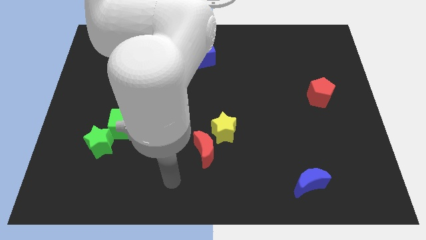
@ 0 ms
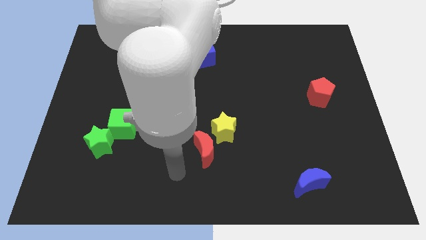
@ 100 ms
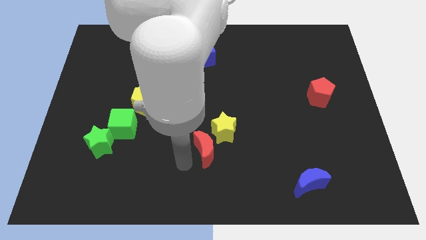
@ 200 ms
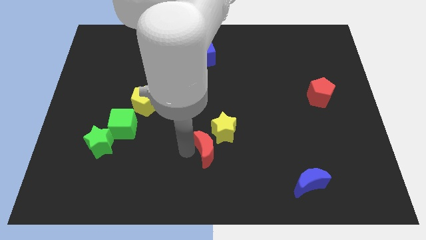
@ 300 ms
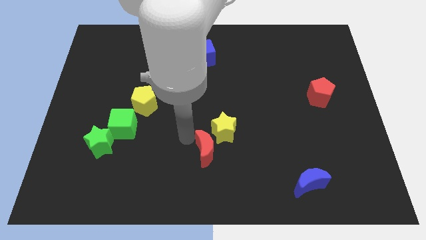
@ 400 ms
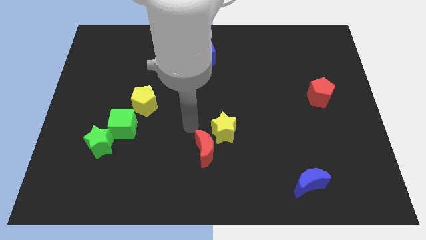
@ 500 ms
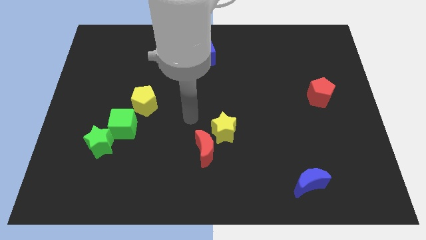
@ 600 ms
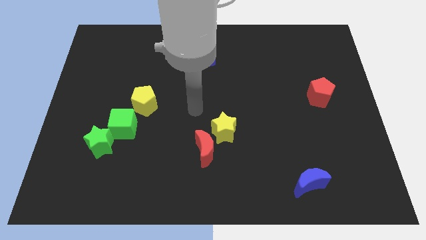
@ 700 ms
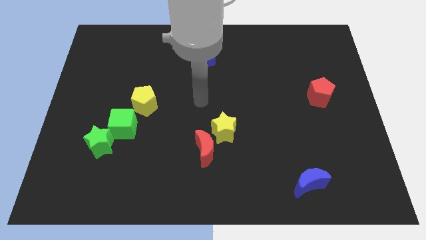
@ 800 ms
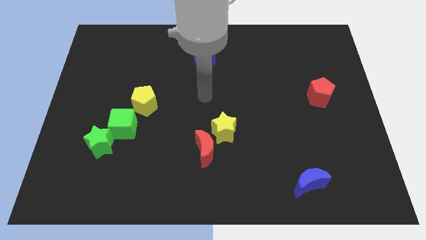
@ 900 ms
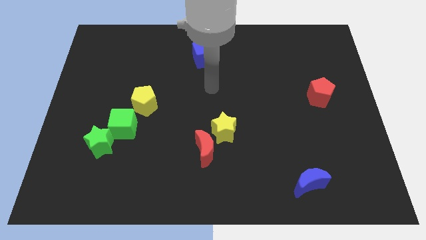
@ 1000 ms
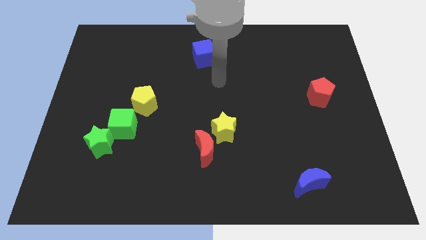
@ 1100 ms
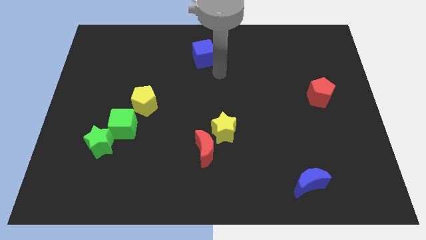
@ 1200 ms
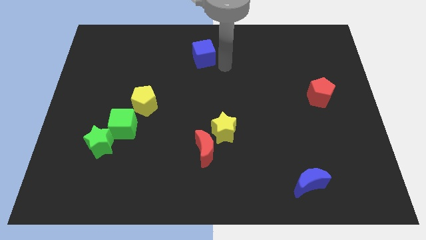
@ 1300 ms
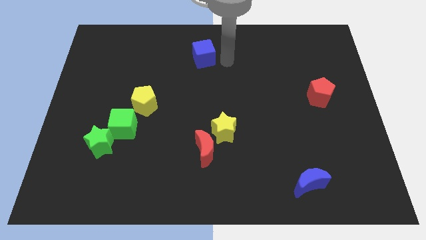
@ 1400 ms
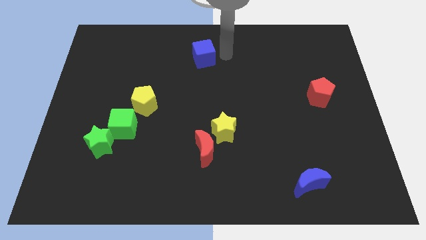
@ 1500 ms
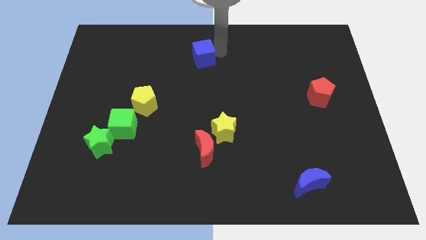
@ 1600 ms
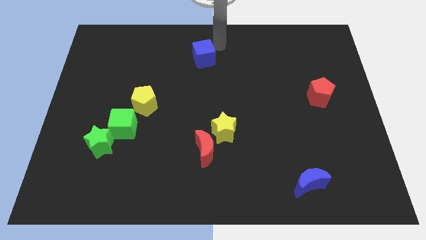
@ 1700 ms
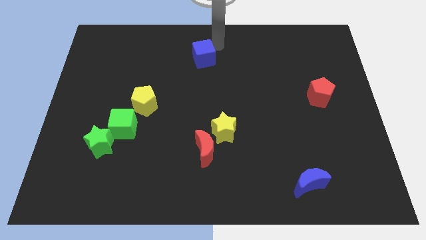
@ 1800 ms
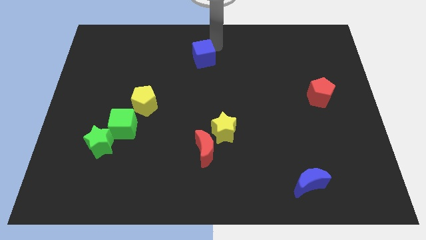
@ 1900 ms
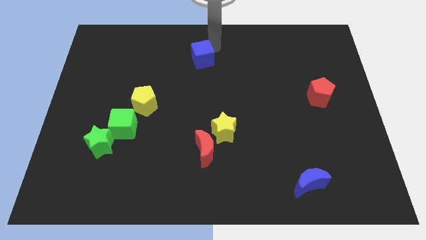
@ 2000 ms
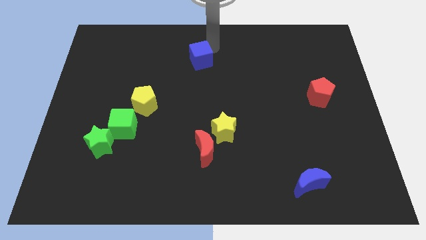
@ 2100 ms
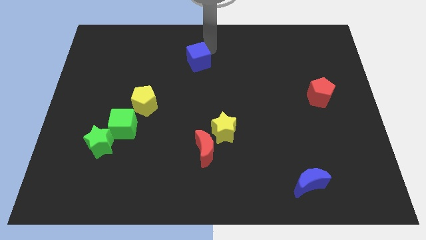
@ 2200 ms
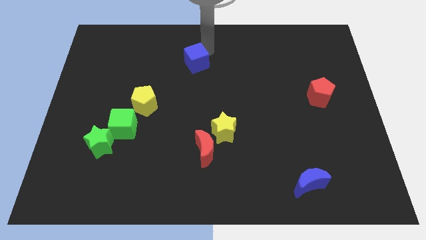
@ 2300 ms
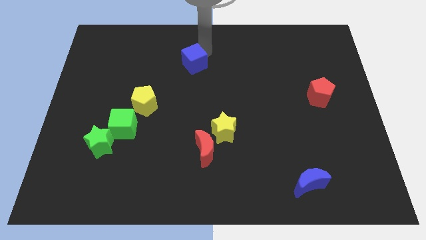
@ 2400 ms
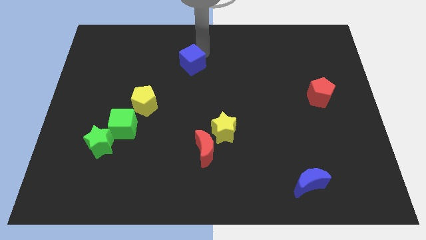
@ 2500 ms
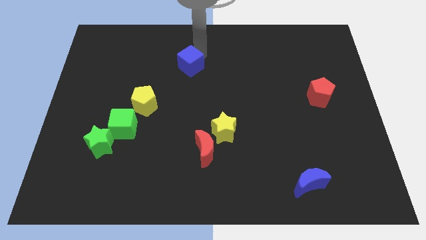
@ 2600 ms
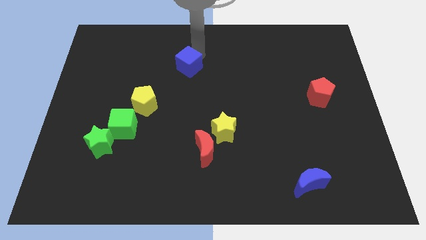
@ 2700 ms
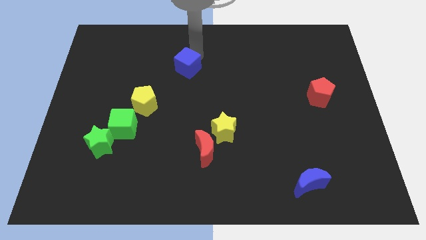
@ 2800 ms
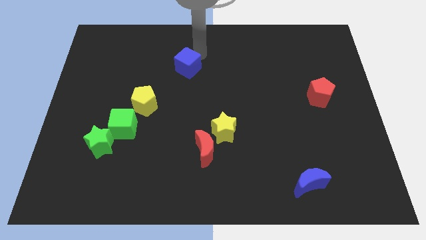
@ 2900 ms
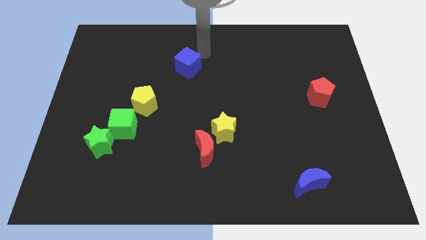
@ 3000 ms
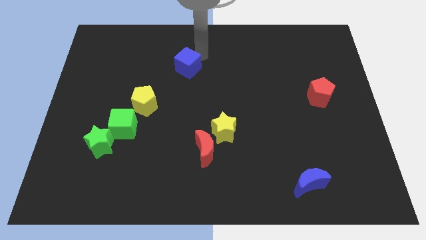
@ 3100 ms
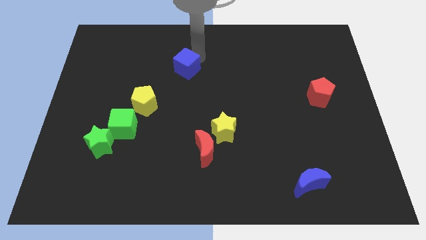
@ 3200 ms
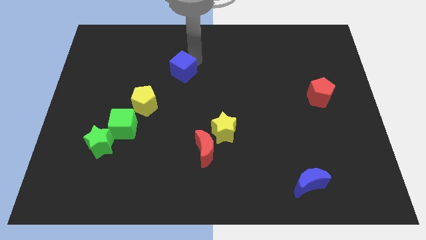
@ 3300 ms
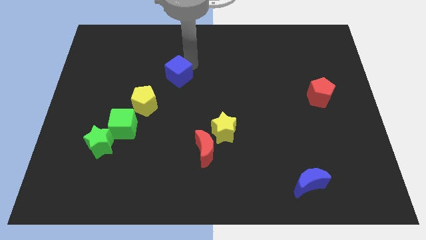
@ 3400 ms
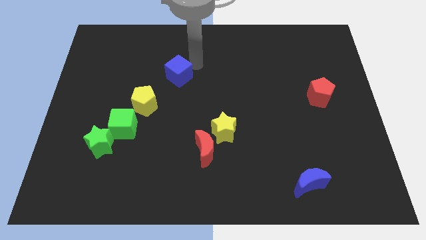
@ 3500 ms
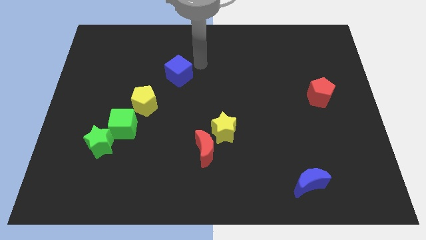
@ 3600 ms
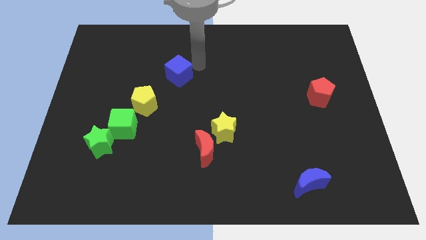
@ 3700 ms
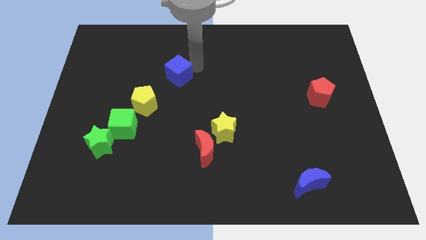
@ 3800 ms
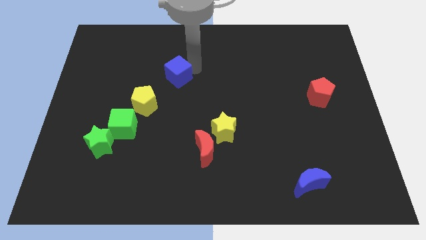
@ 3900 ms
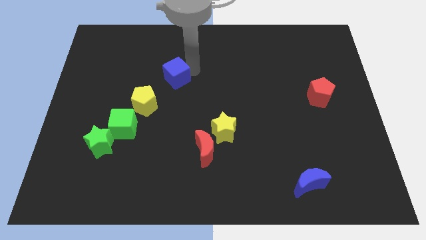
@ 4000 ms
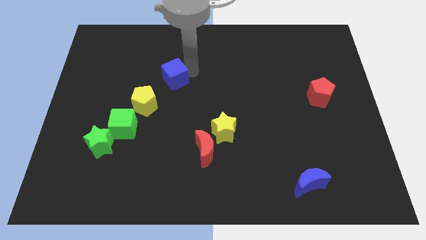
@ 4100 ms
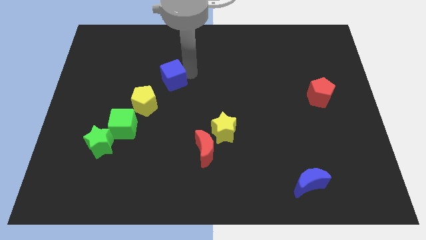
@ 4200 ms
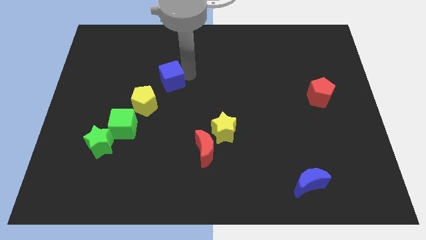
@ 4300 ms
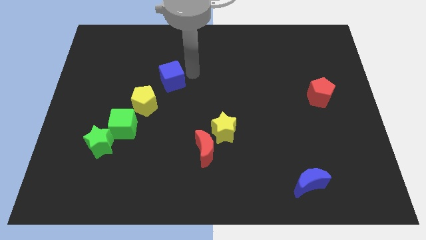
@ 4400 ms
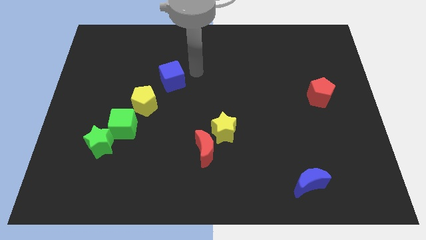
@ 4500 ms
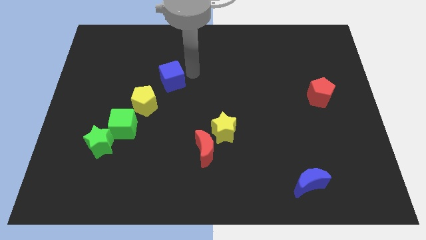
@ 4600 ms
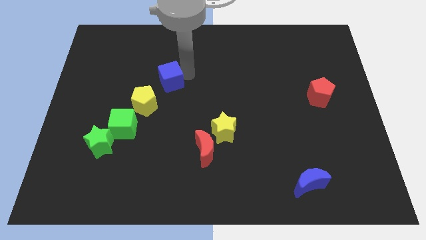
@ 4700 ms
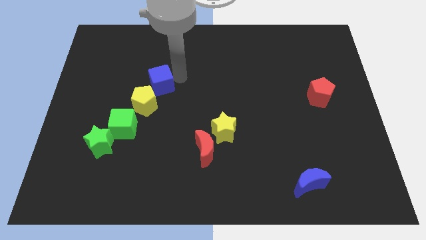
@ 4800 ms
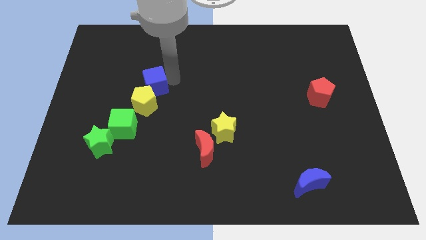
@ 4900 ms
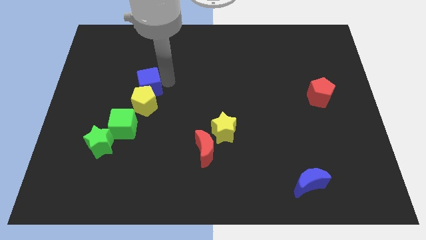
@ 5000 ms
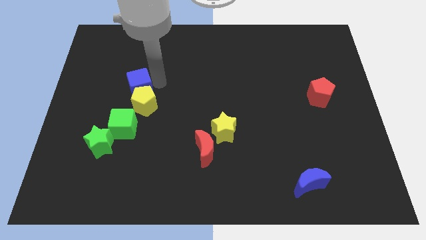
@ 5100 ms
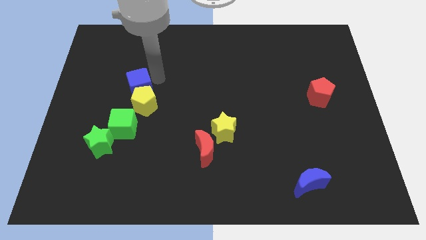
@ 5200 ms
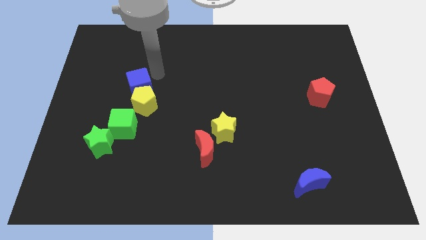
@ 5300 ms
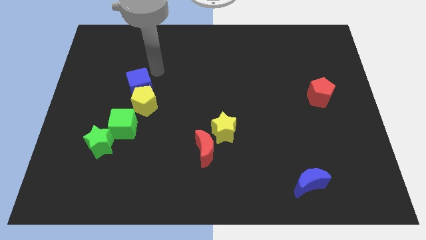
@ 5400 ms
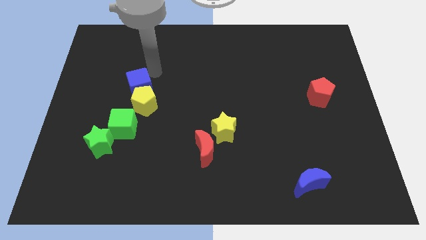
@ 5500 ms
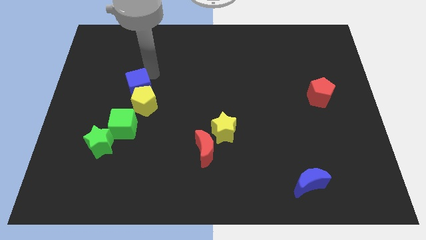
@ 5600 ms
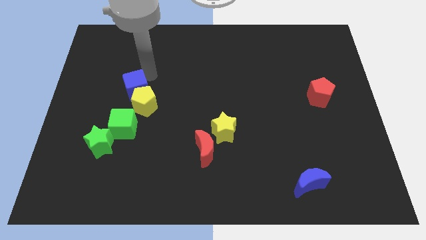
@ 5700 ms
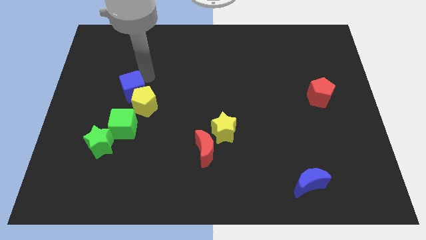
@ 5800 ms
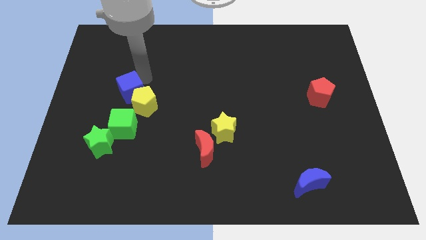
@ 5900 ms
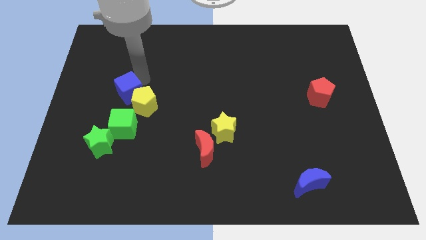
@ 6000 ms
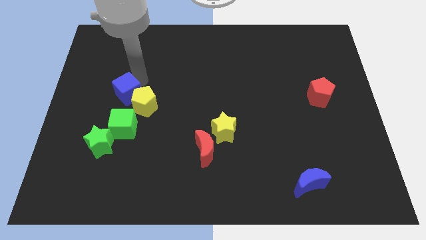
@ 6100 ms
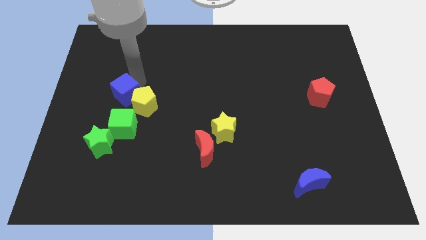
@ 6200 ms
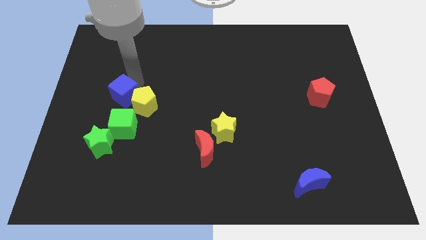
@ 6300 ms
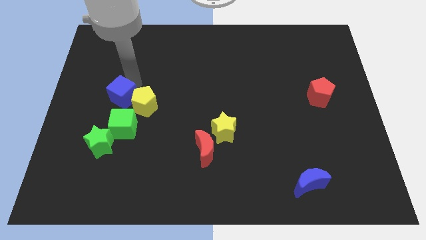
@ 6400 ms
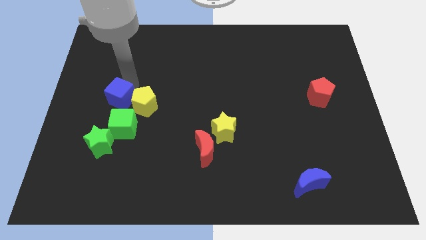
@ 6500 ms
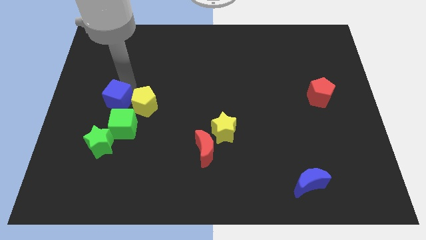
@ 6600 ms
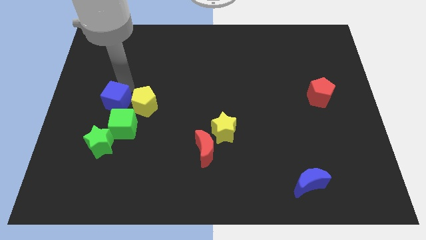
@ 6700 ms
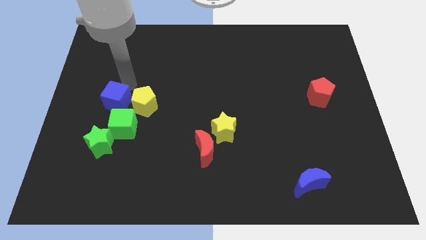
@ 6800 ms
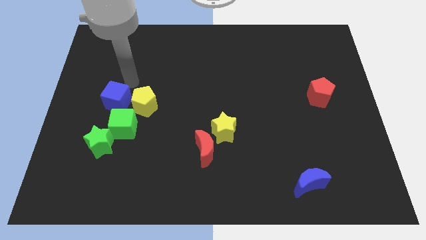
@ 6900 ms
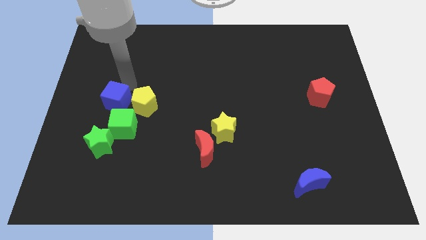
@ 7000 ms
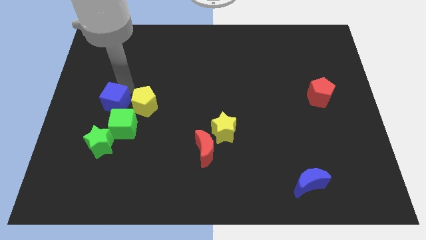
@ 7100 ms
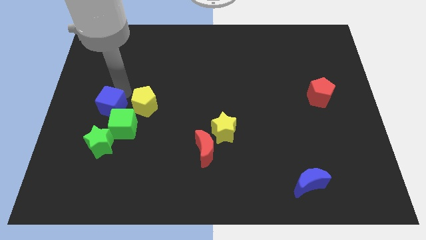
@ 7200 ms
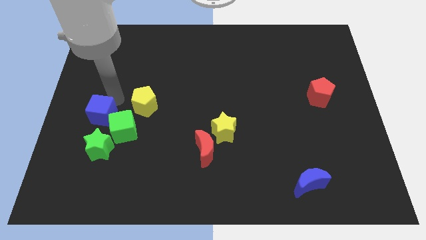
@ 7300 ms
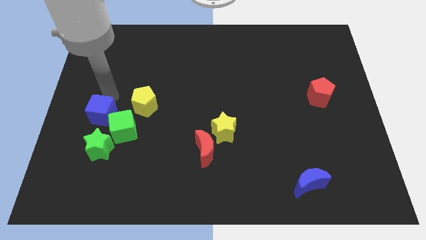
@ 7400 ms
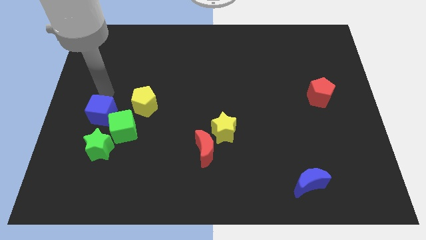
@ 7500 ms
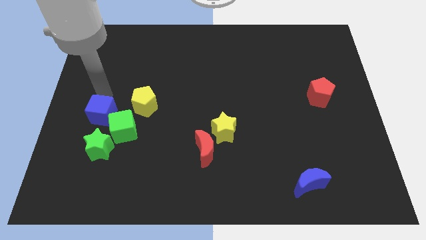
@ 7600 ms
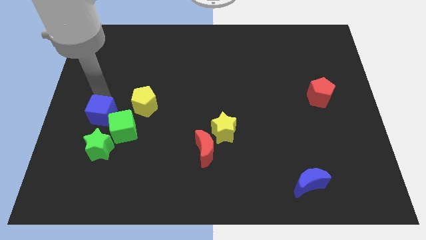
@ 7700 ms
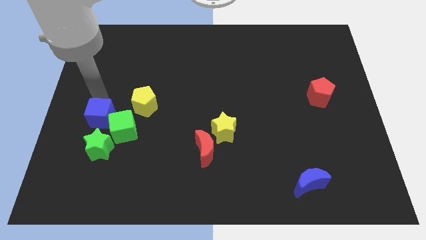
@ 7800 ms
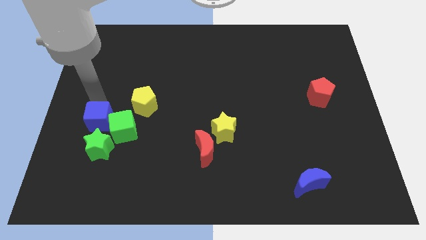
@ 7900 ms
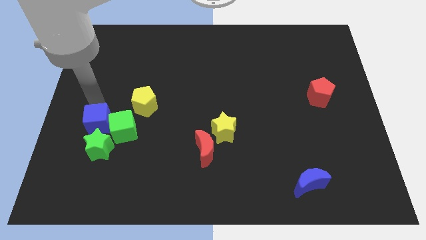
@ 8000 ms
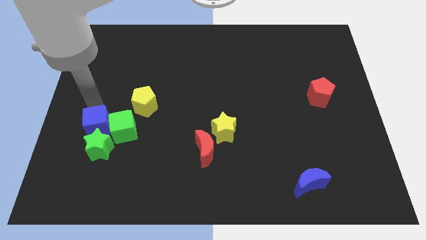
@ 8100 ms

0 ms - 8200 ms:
push the blue cube towards the green star
